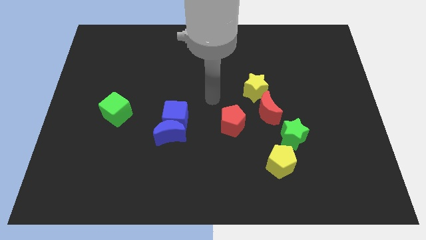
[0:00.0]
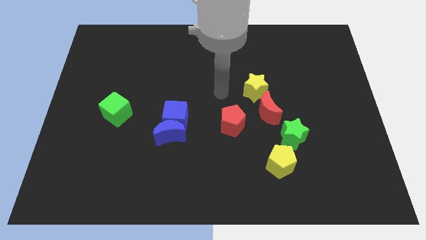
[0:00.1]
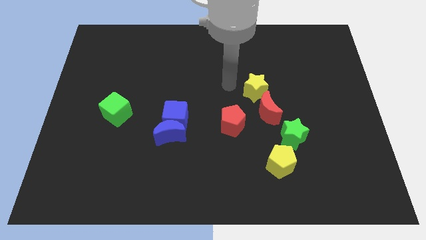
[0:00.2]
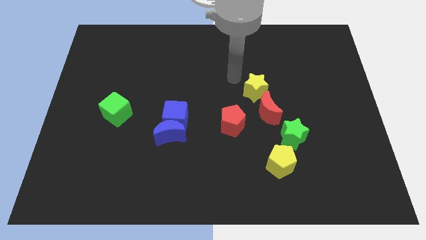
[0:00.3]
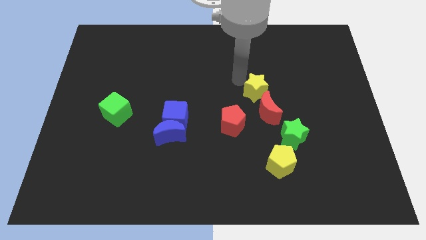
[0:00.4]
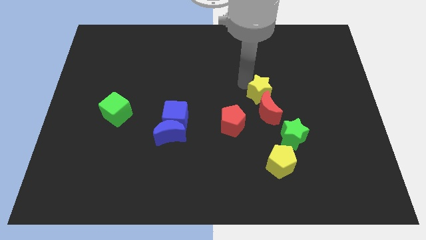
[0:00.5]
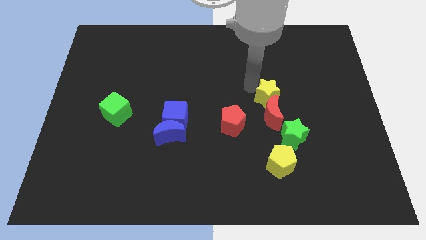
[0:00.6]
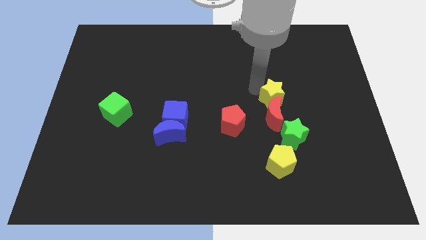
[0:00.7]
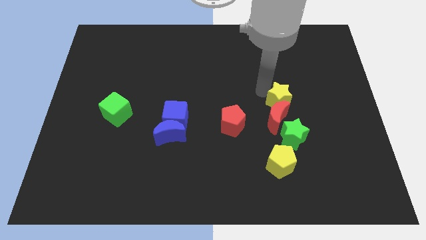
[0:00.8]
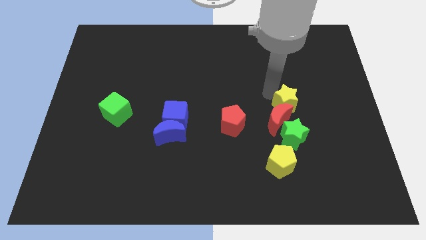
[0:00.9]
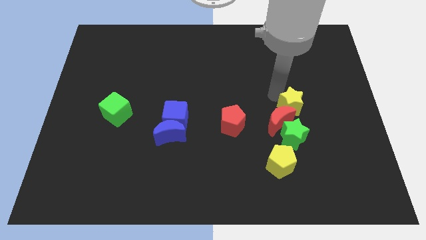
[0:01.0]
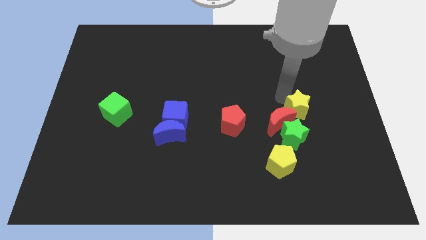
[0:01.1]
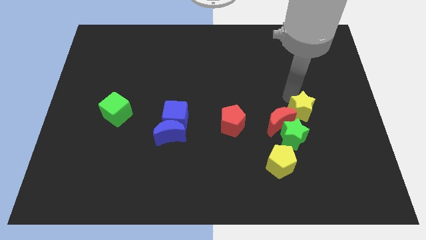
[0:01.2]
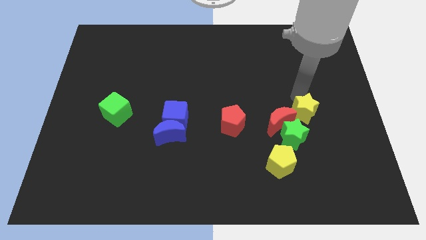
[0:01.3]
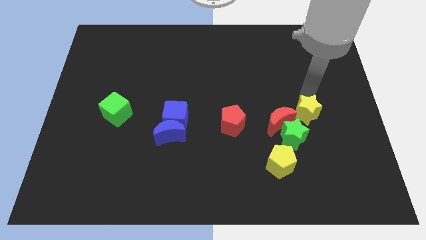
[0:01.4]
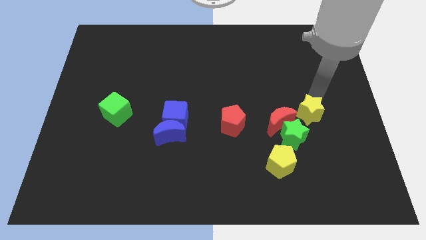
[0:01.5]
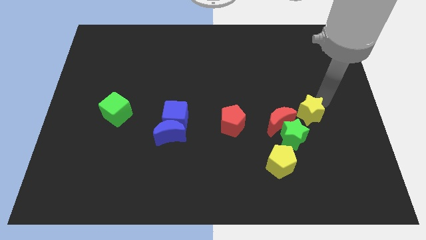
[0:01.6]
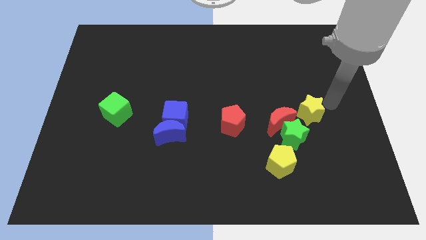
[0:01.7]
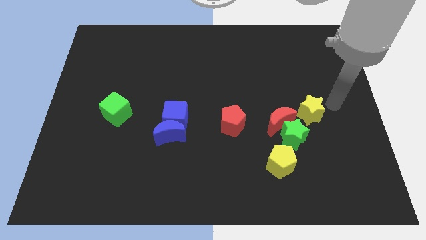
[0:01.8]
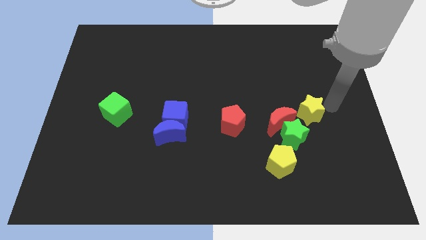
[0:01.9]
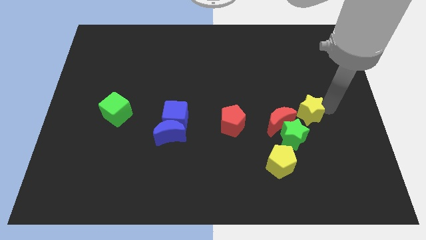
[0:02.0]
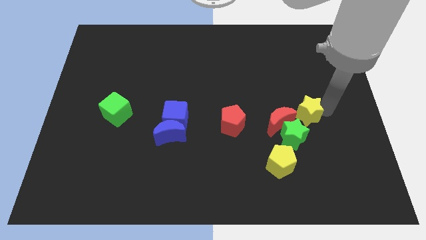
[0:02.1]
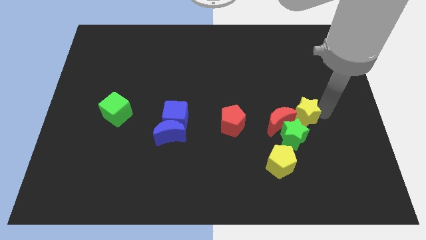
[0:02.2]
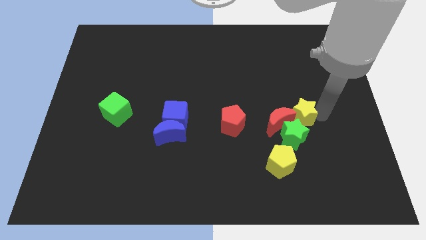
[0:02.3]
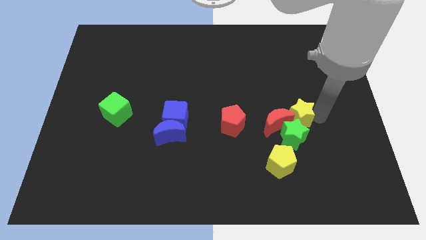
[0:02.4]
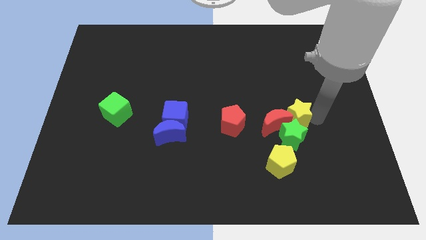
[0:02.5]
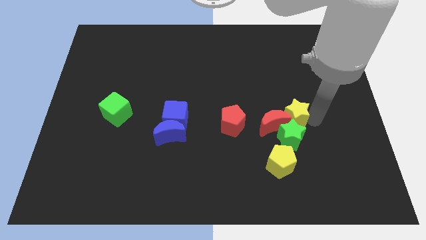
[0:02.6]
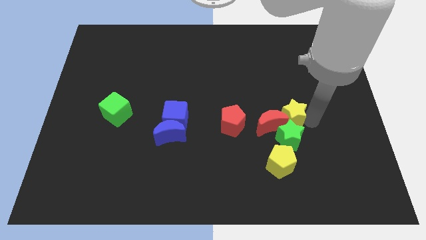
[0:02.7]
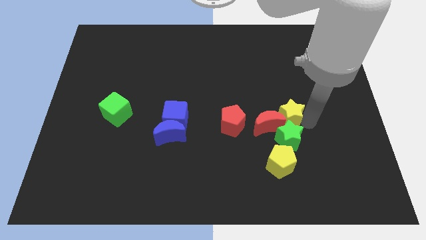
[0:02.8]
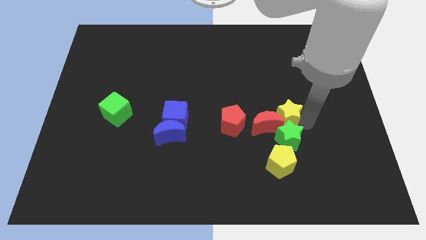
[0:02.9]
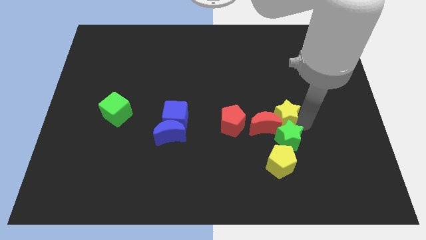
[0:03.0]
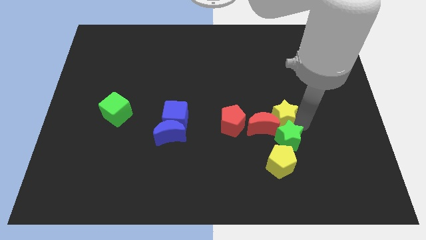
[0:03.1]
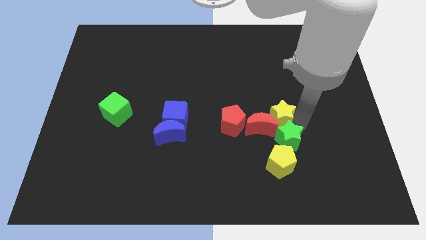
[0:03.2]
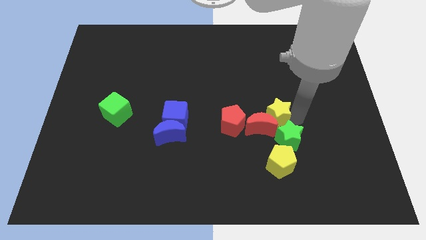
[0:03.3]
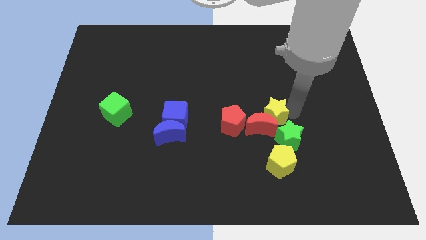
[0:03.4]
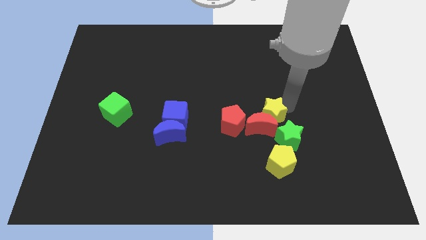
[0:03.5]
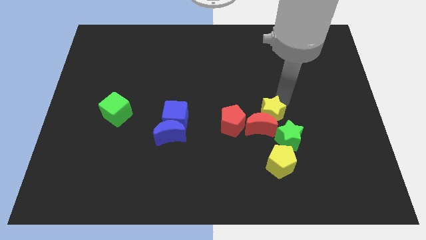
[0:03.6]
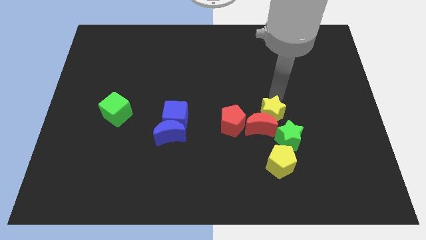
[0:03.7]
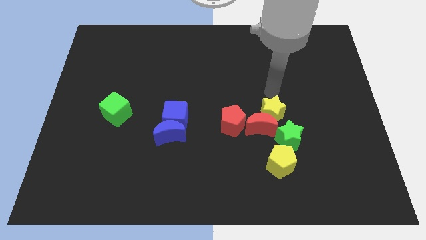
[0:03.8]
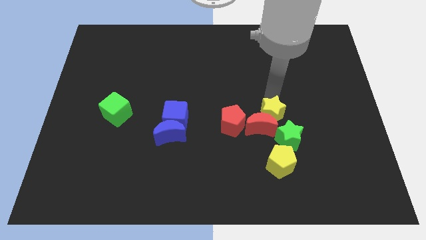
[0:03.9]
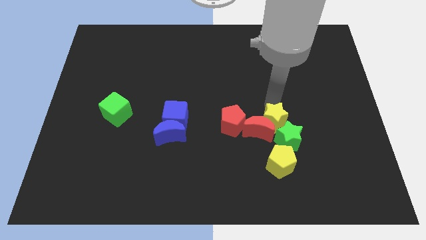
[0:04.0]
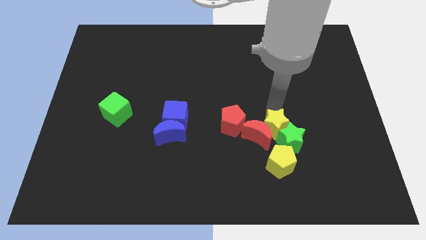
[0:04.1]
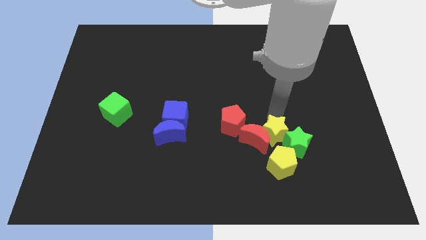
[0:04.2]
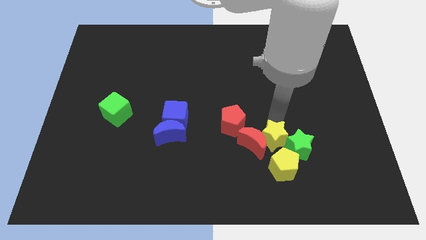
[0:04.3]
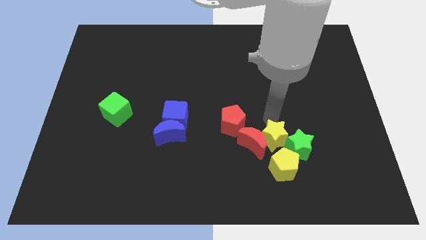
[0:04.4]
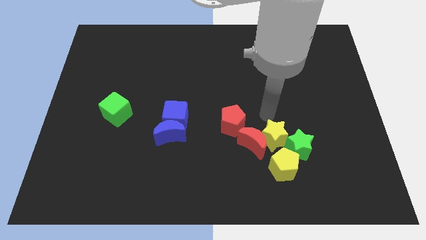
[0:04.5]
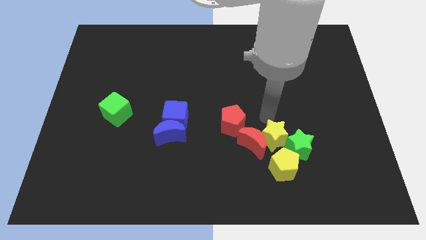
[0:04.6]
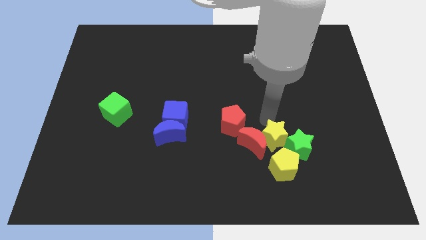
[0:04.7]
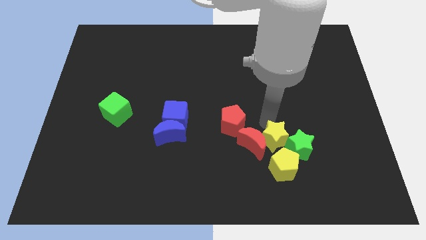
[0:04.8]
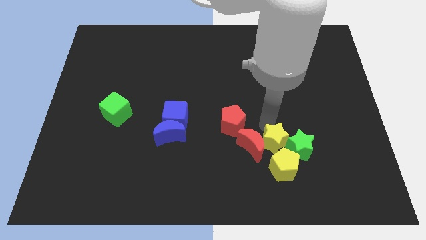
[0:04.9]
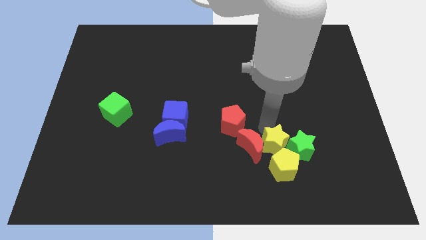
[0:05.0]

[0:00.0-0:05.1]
push the yellow star to the yellow pentagon
